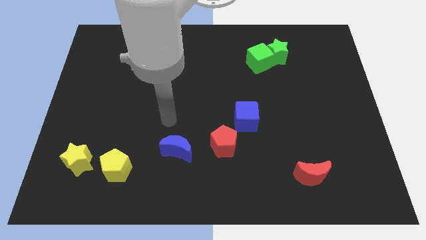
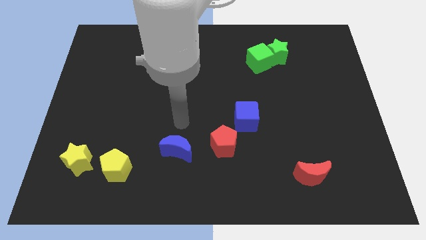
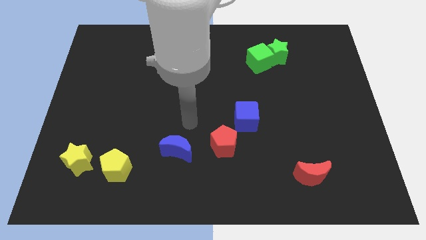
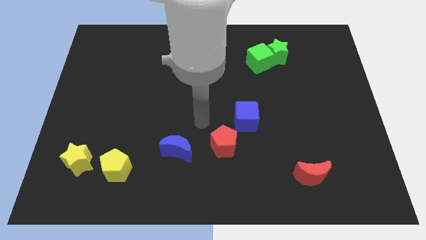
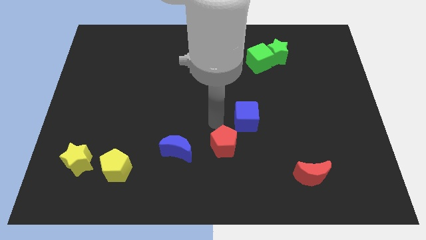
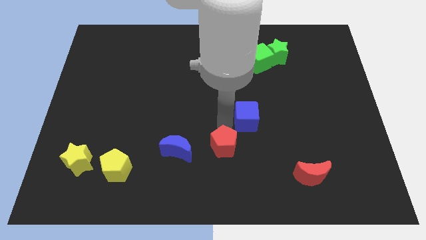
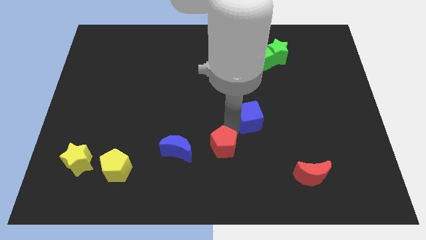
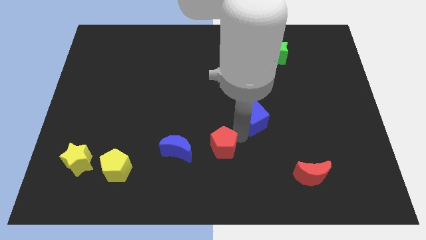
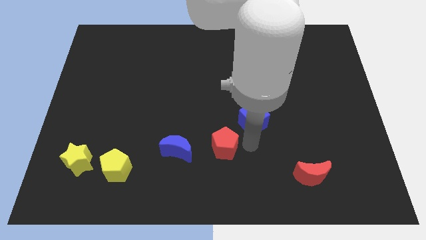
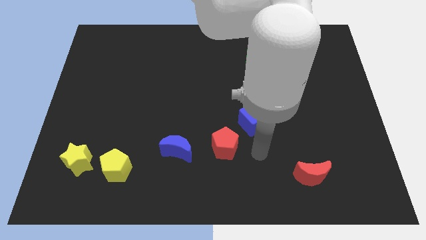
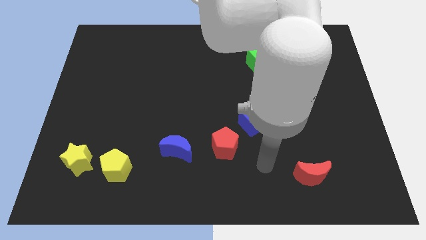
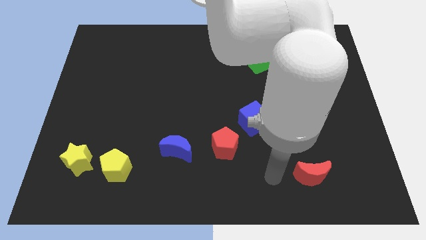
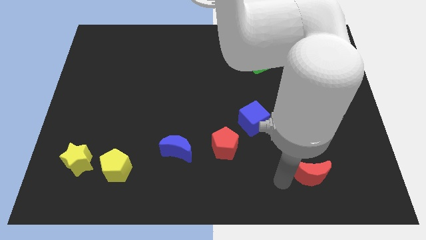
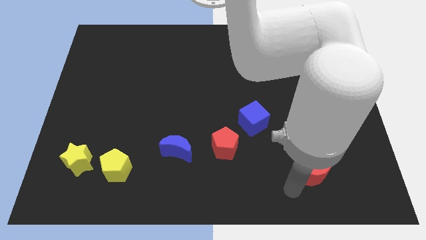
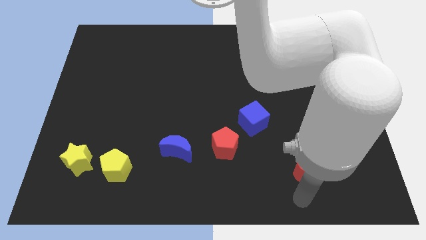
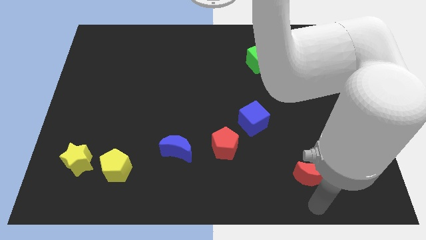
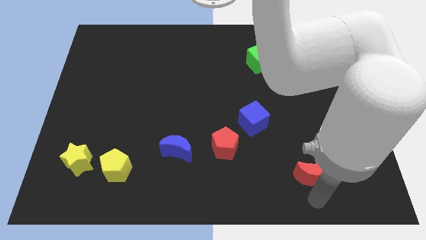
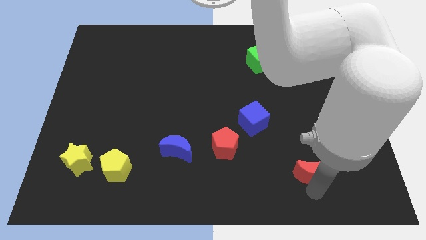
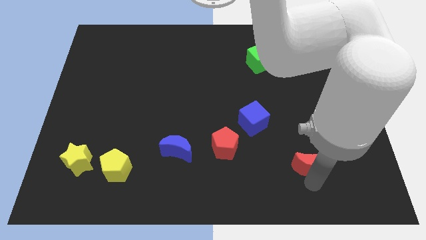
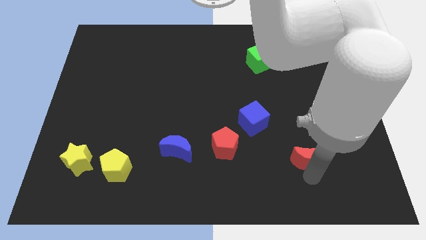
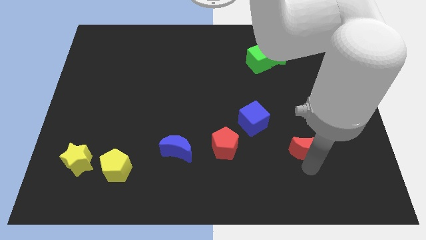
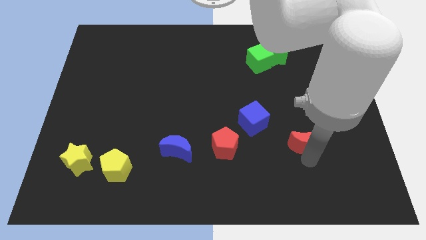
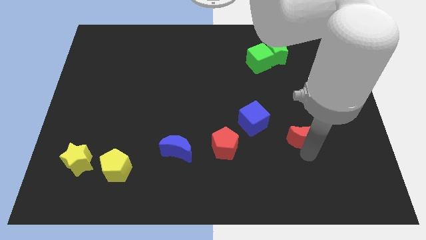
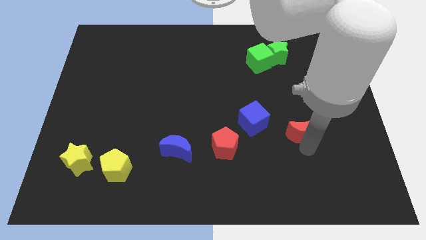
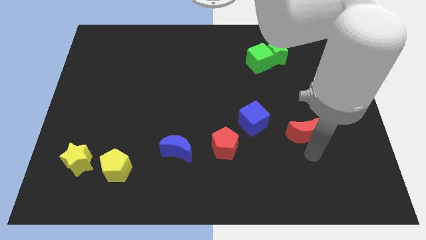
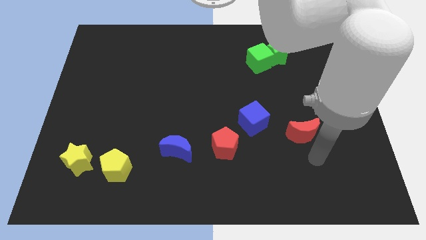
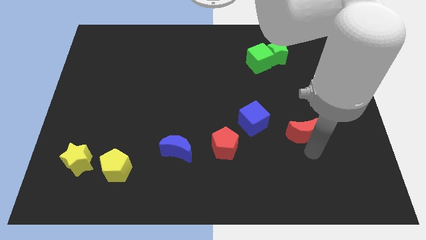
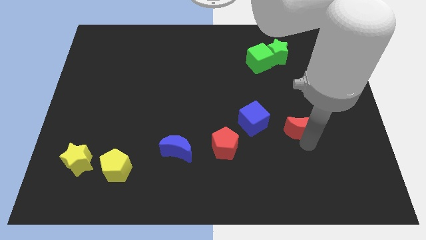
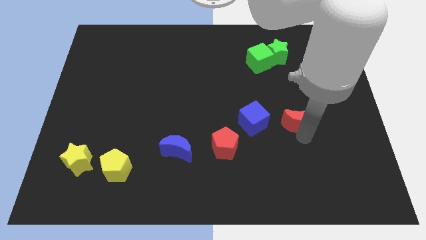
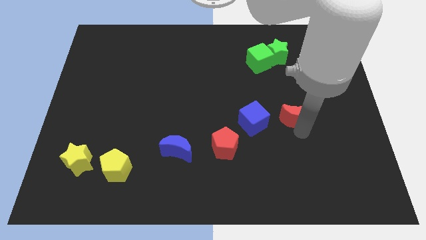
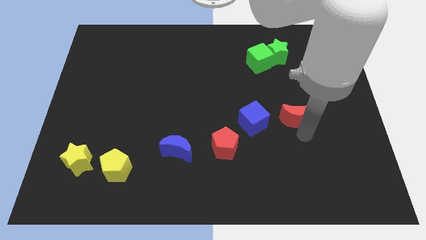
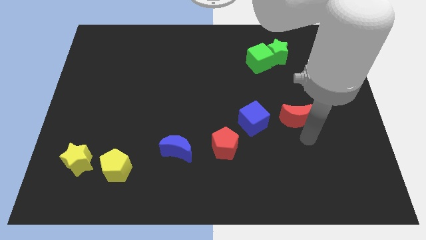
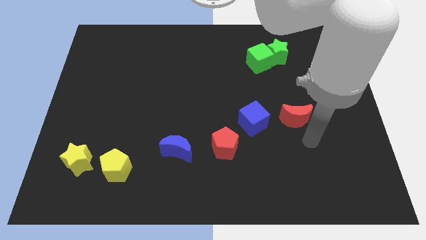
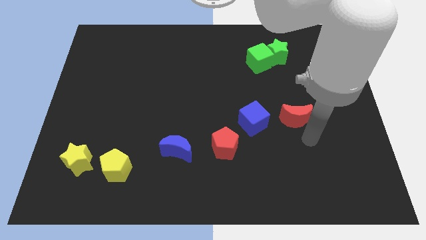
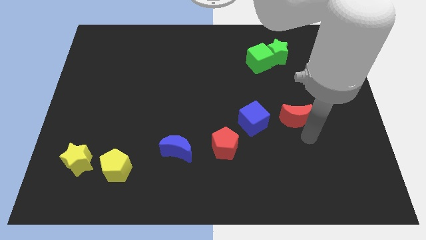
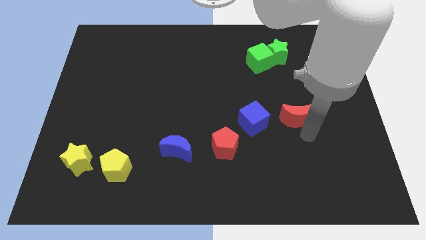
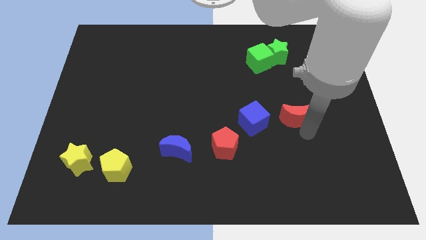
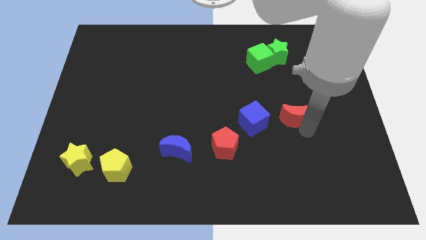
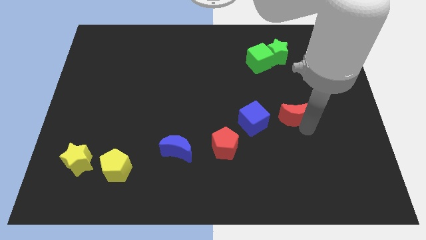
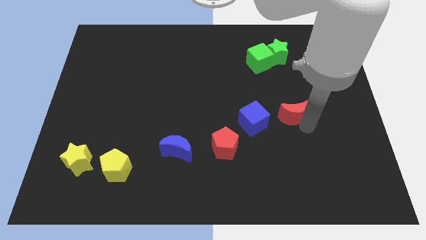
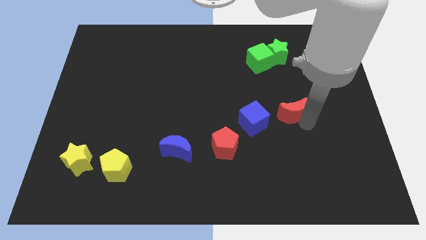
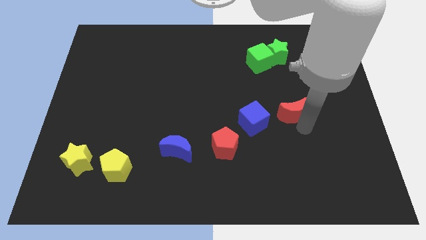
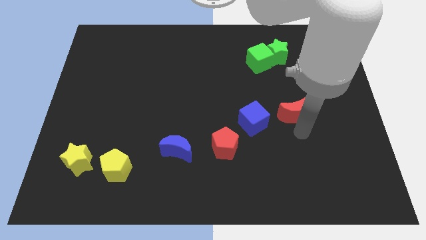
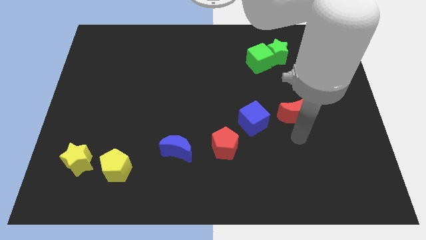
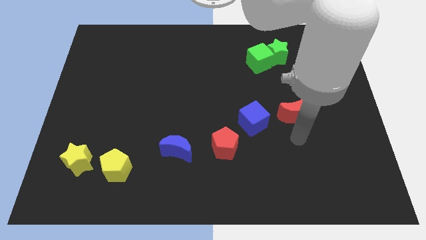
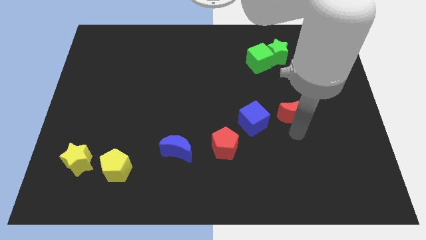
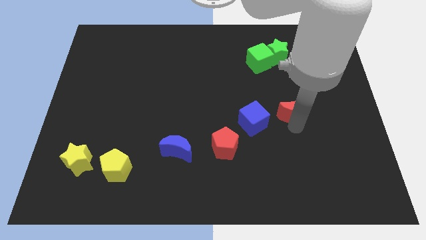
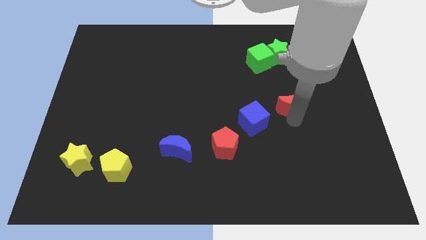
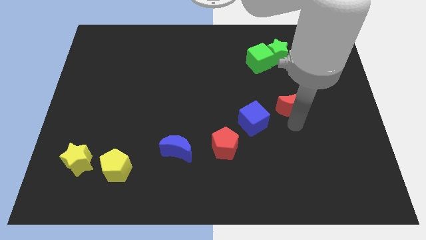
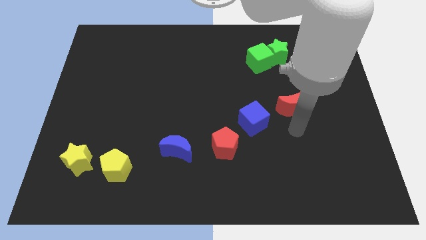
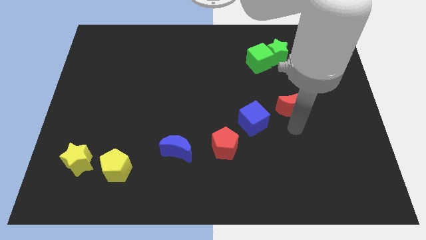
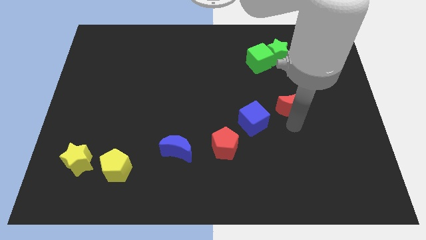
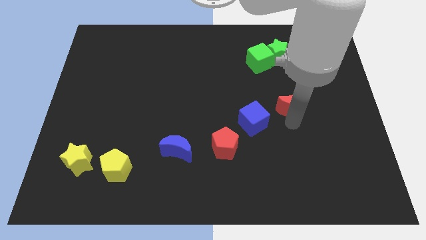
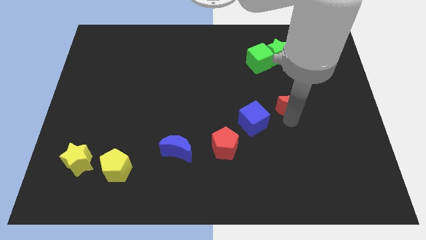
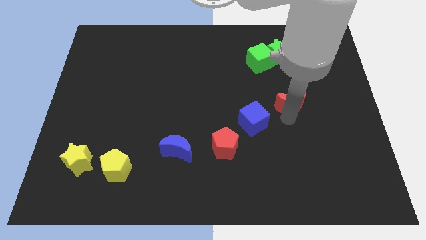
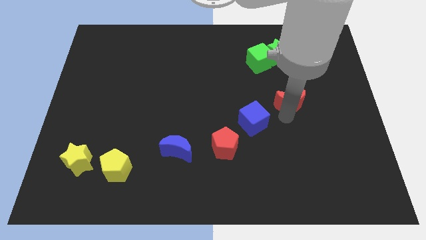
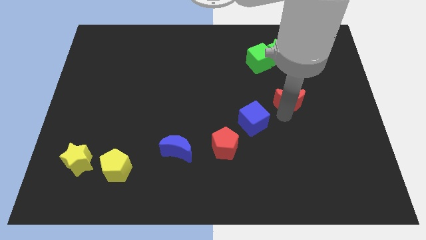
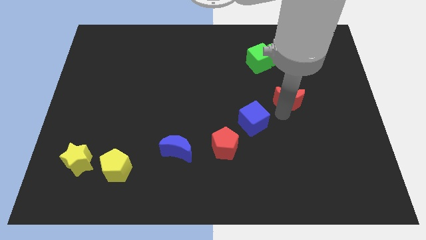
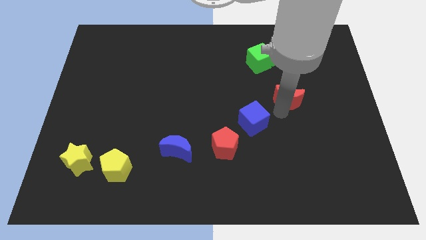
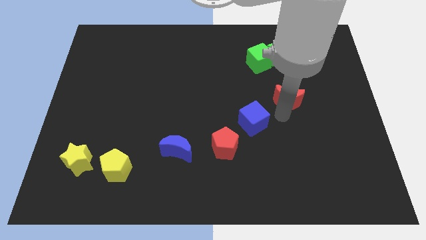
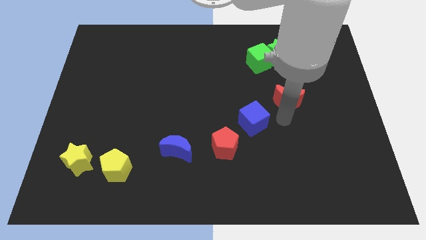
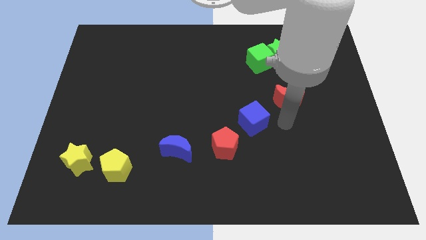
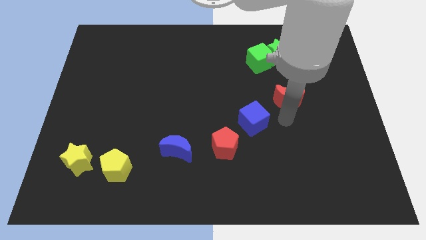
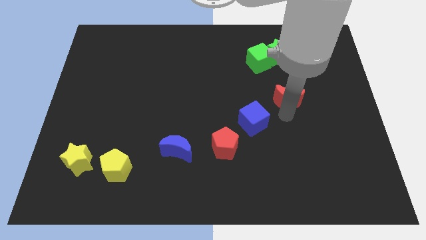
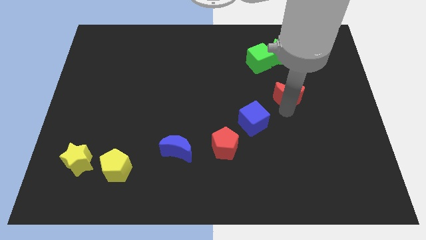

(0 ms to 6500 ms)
move the red moon up

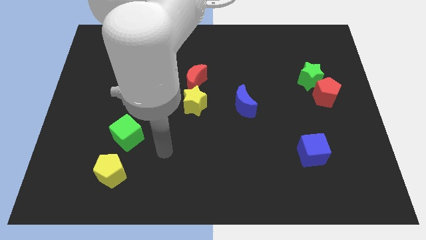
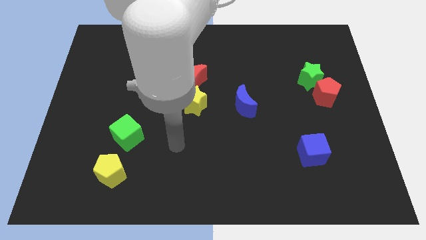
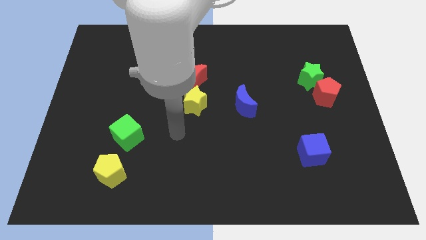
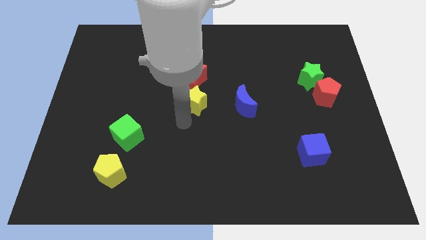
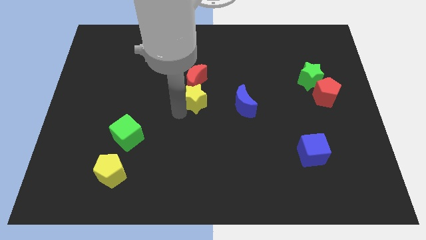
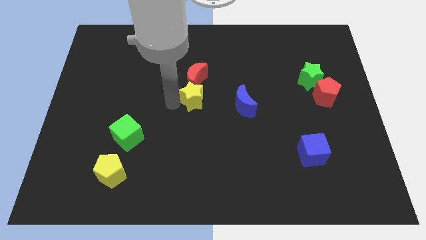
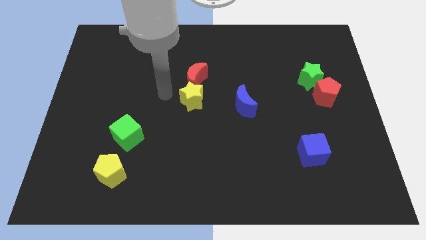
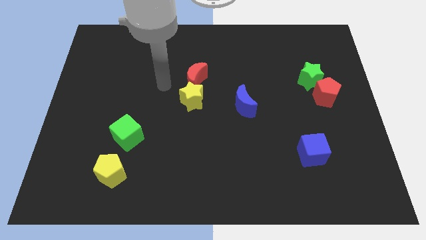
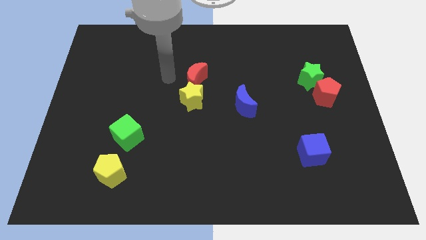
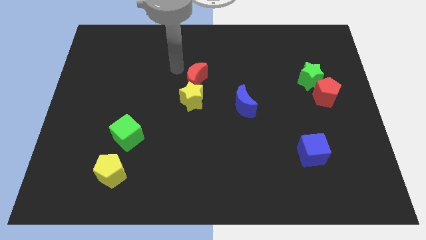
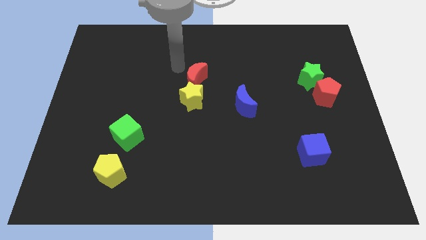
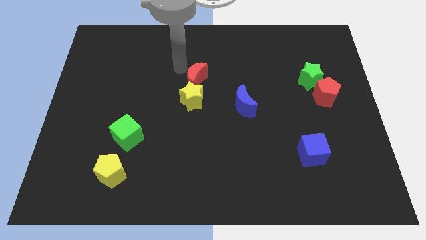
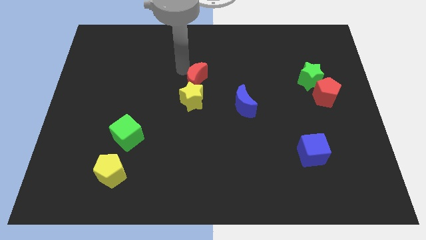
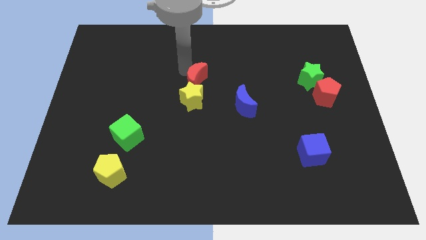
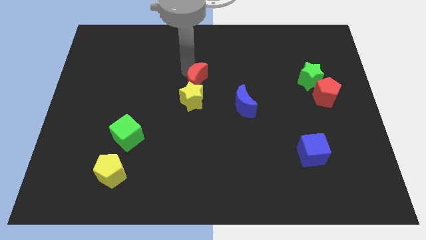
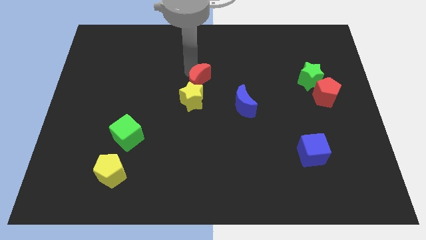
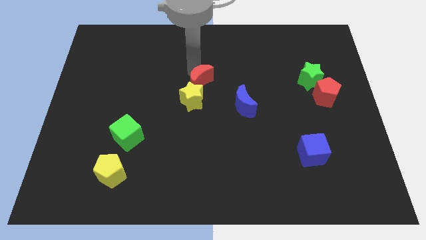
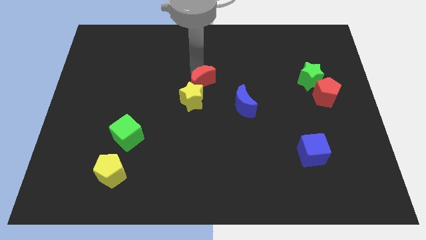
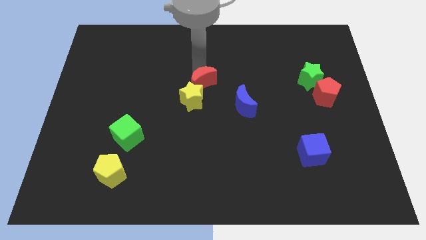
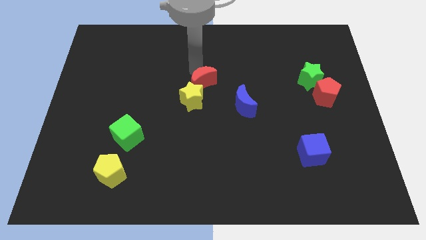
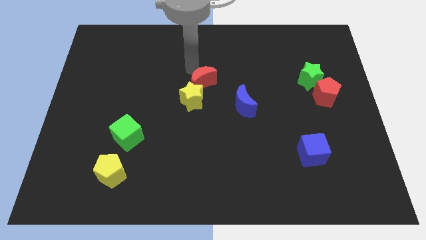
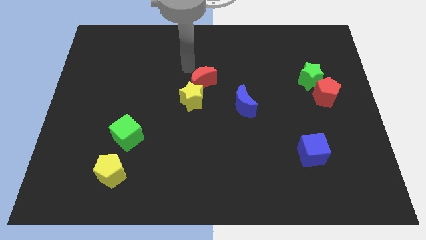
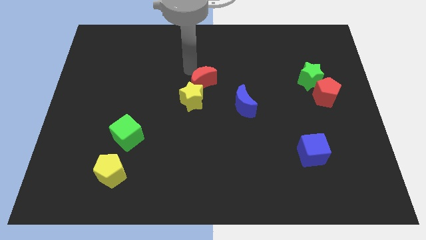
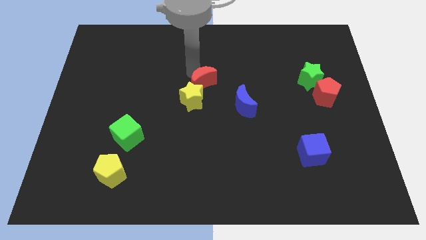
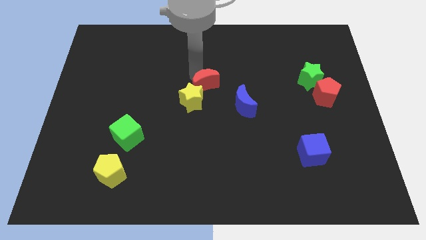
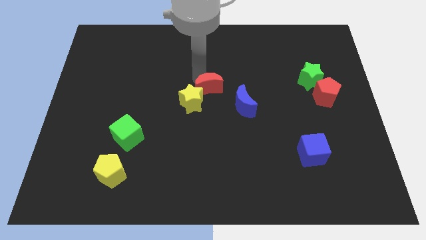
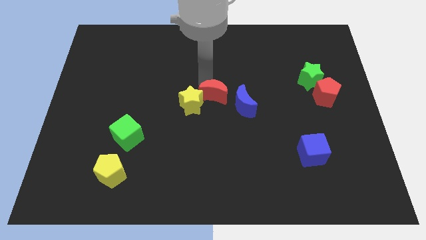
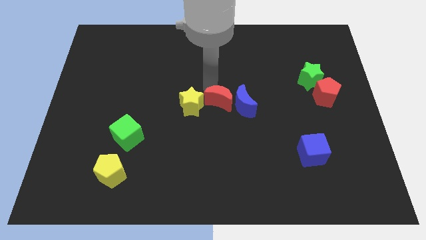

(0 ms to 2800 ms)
move the red moon down and to the right a bit
